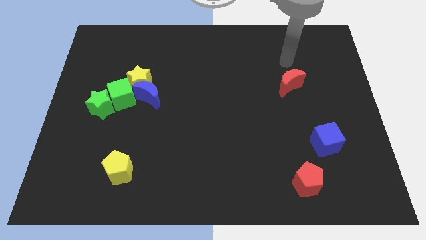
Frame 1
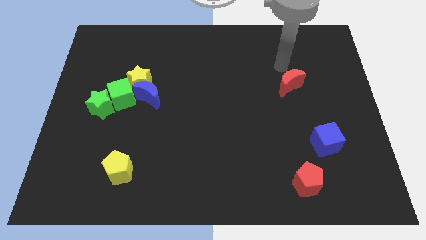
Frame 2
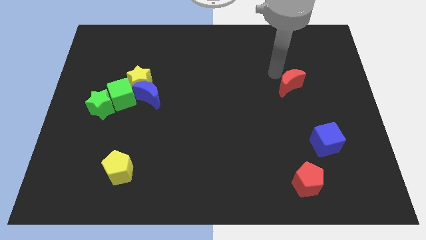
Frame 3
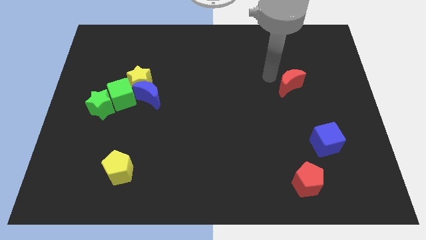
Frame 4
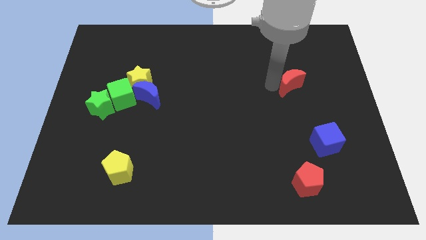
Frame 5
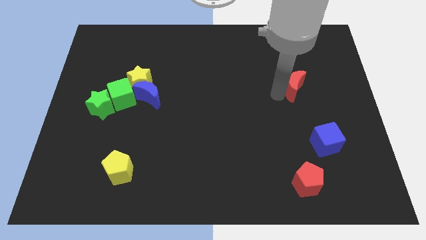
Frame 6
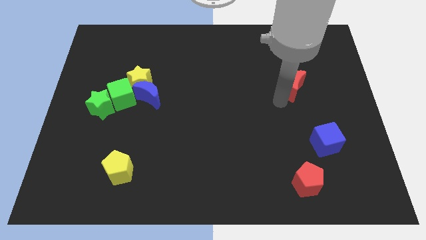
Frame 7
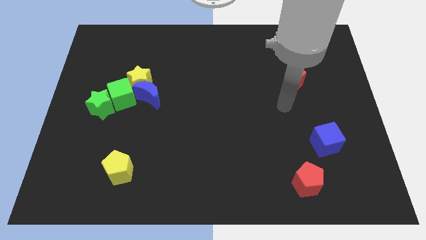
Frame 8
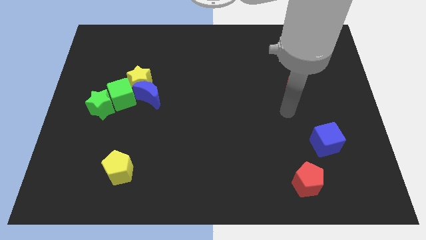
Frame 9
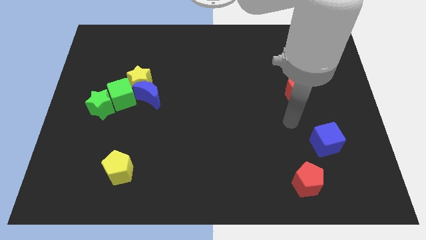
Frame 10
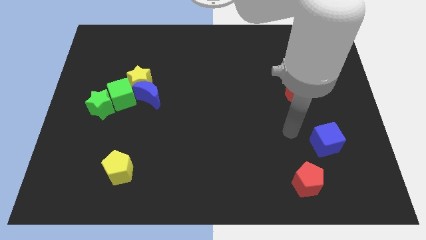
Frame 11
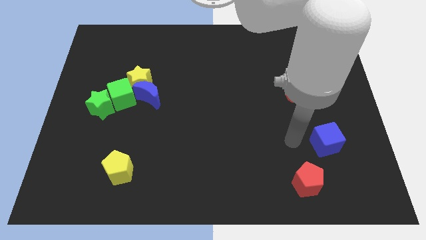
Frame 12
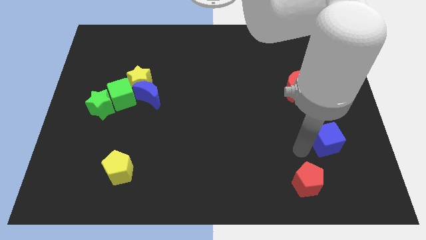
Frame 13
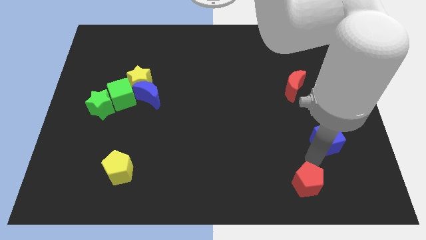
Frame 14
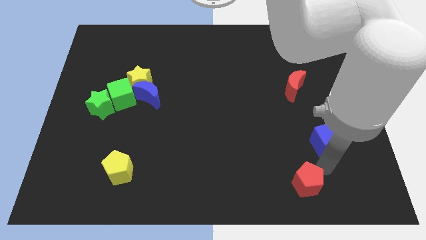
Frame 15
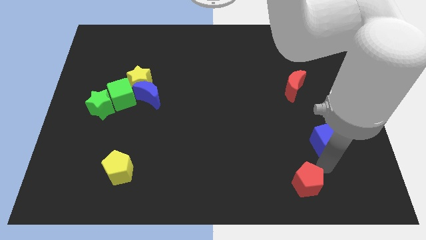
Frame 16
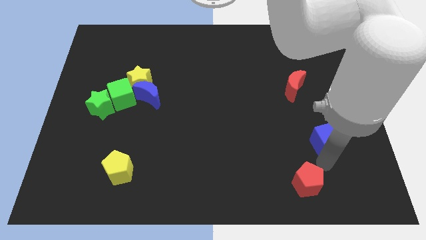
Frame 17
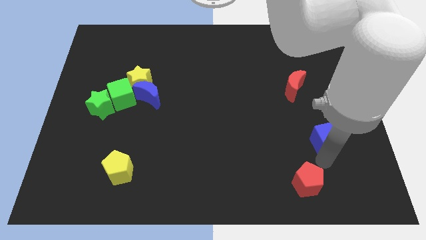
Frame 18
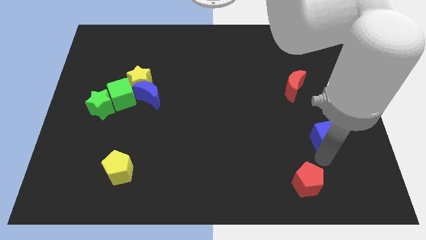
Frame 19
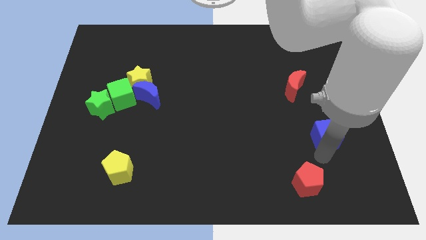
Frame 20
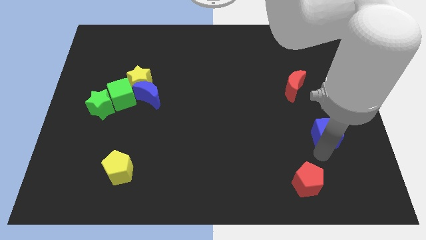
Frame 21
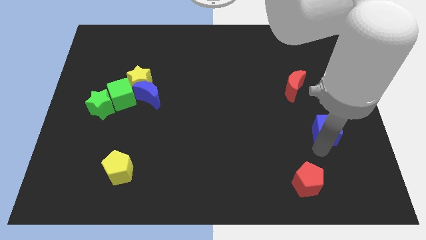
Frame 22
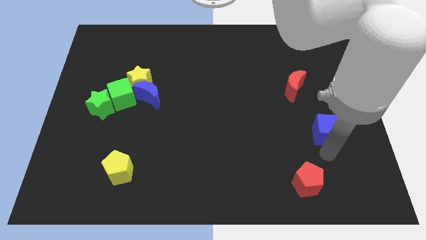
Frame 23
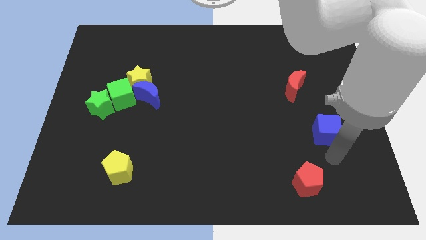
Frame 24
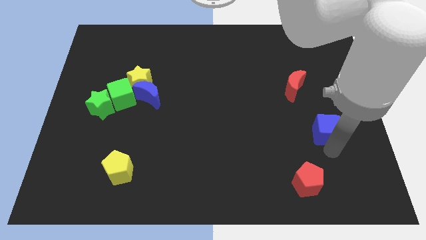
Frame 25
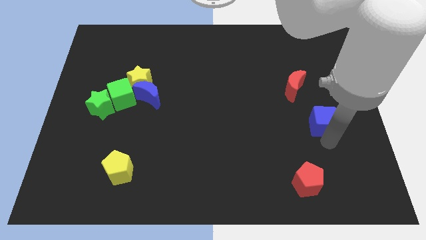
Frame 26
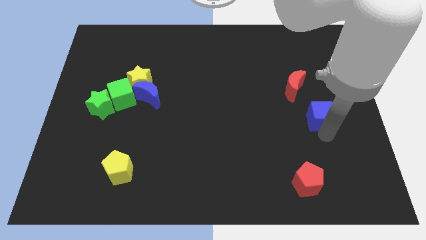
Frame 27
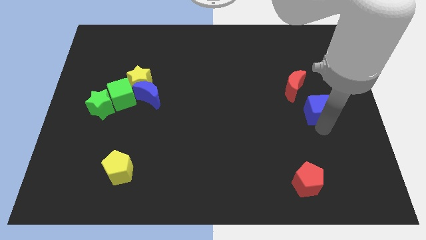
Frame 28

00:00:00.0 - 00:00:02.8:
move the blue cube up a little bit

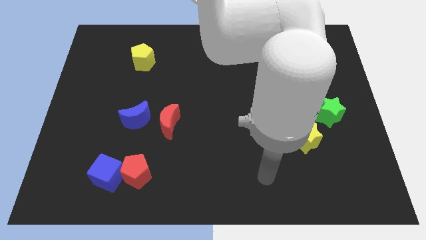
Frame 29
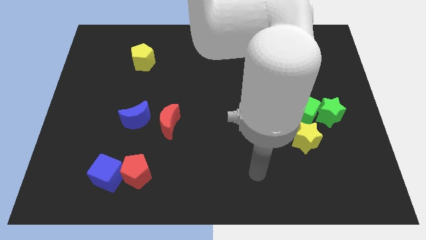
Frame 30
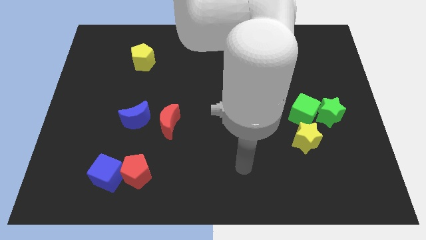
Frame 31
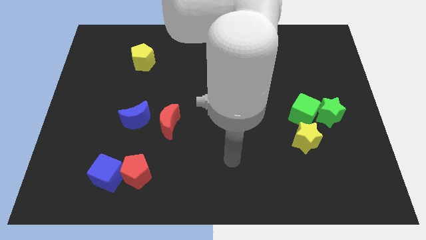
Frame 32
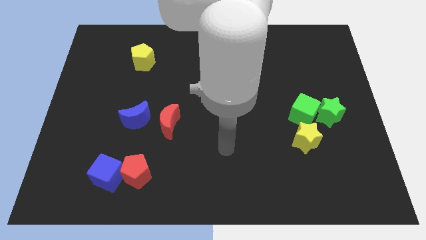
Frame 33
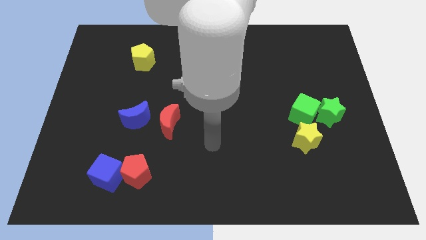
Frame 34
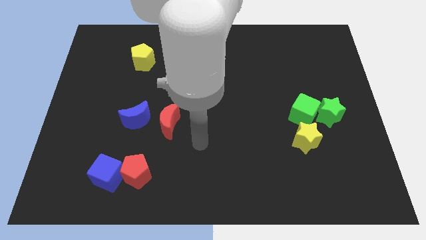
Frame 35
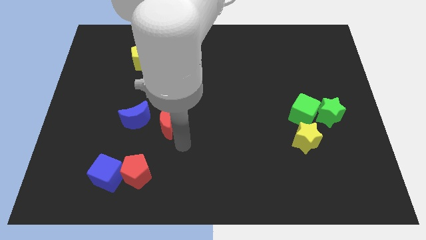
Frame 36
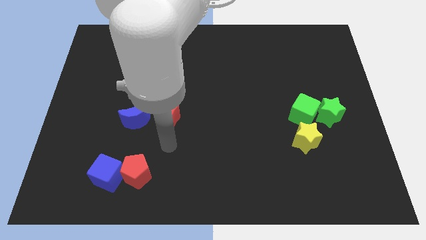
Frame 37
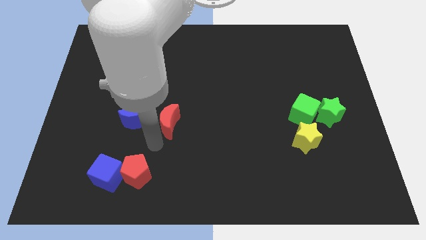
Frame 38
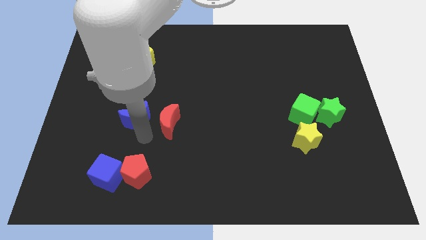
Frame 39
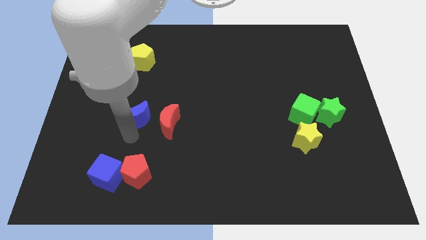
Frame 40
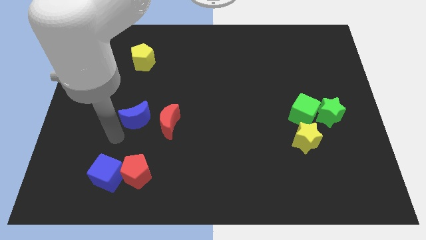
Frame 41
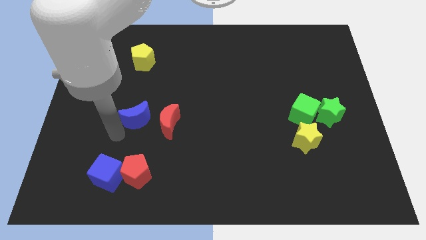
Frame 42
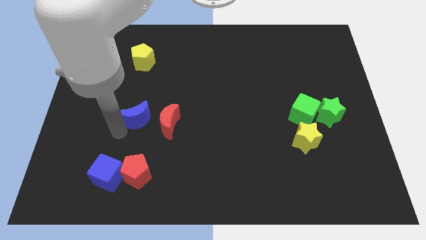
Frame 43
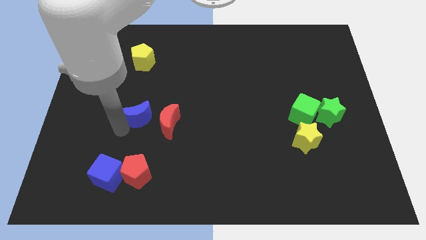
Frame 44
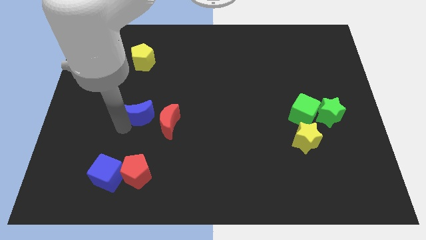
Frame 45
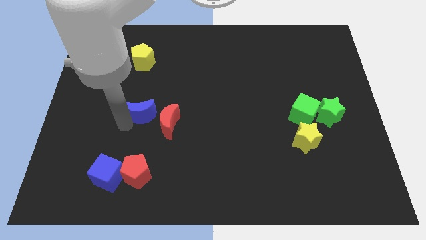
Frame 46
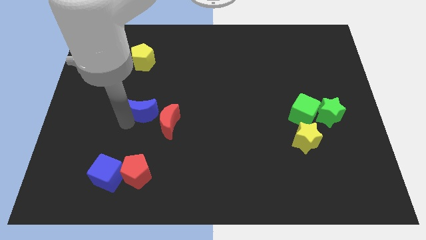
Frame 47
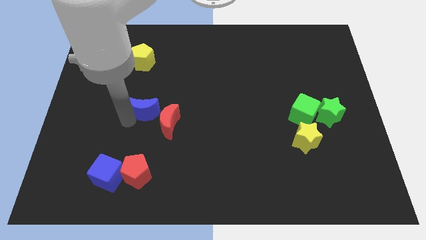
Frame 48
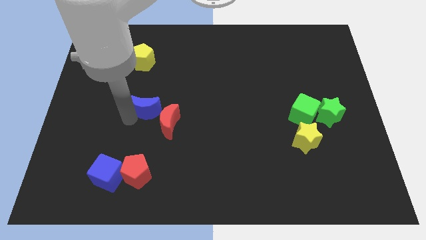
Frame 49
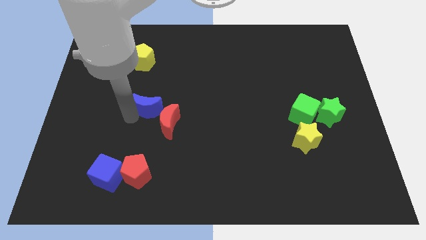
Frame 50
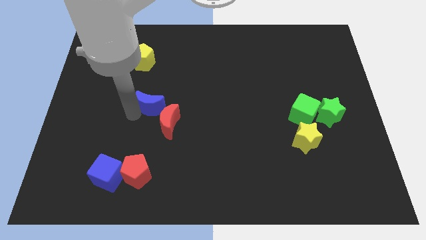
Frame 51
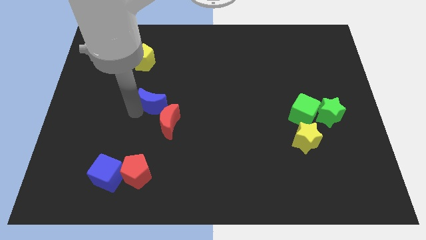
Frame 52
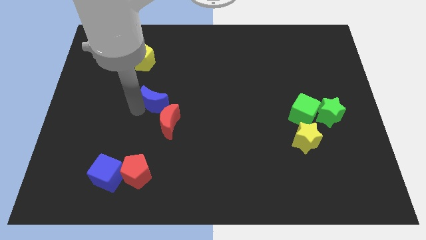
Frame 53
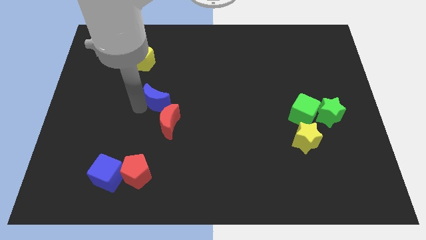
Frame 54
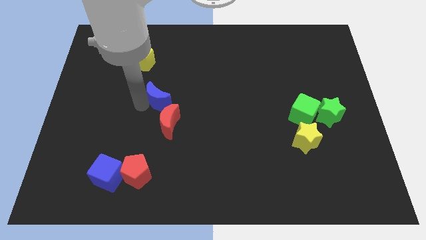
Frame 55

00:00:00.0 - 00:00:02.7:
move the blue moon a little bit up and to the right diagonally

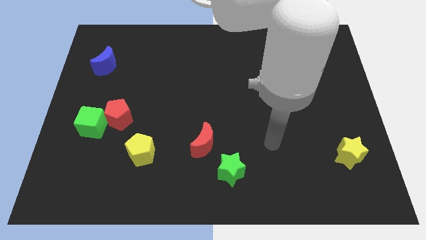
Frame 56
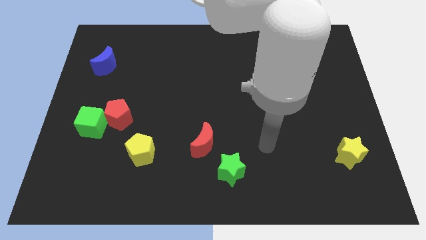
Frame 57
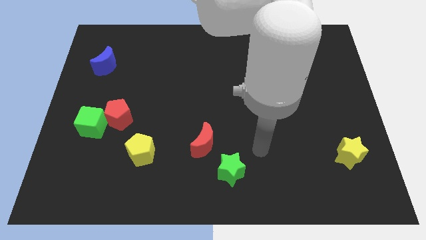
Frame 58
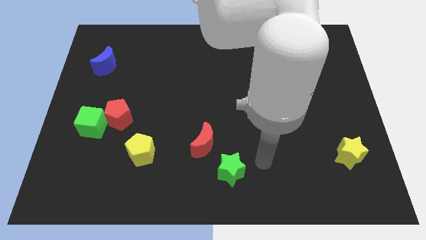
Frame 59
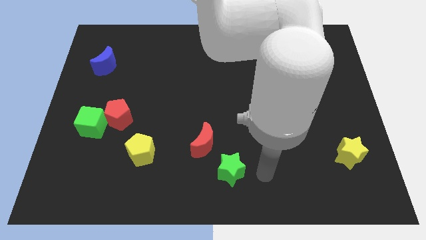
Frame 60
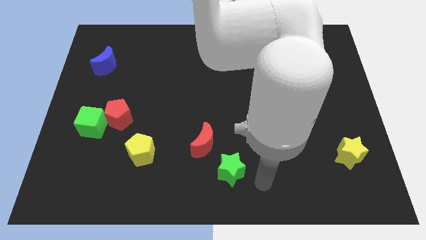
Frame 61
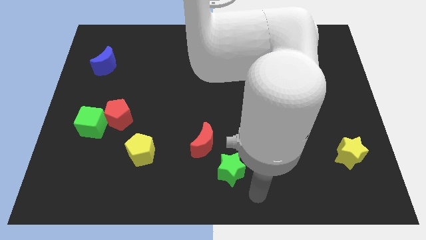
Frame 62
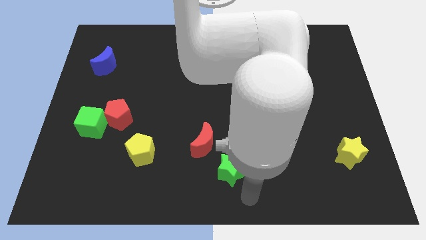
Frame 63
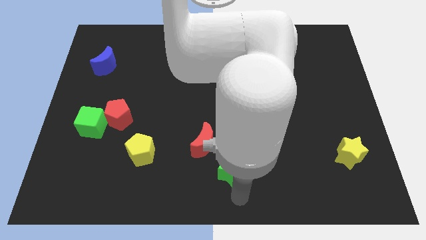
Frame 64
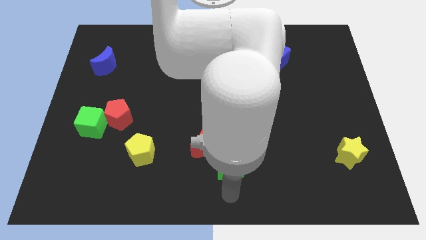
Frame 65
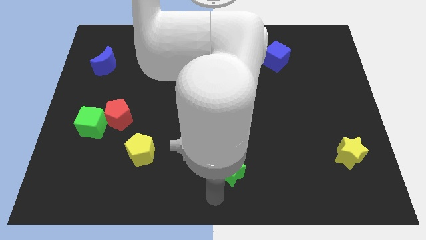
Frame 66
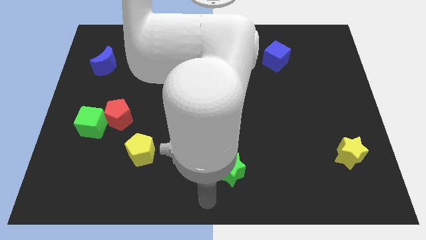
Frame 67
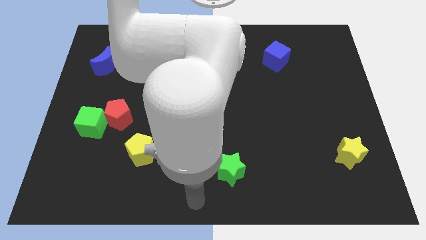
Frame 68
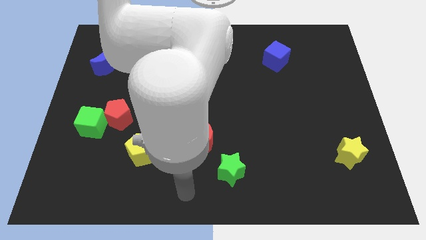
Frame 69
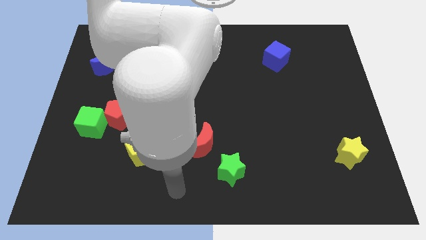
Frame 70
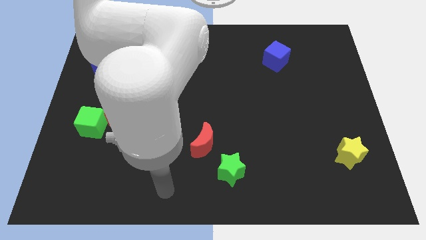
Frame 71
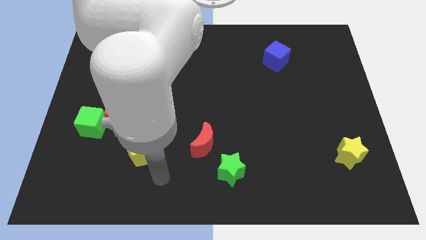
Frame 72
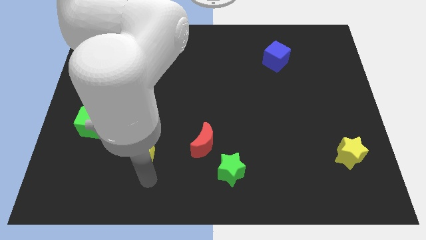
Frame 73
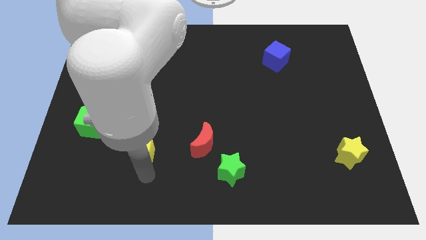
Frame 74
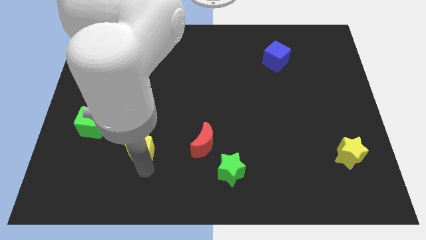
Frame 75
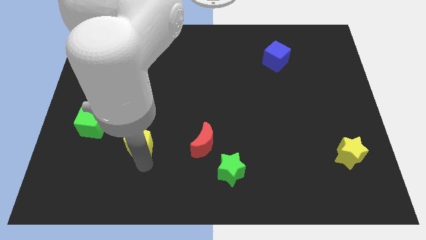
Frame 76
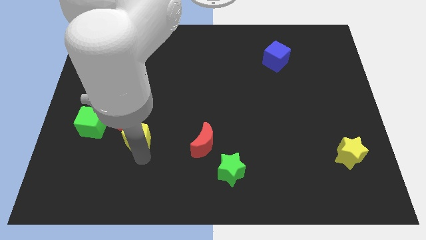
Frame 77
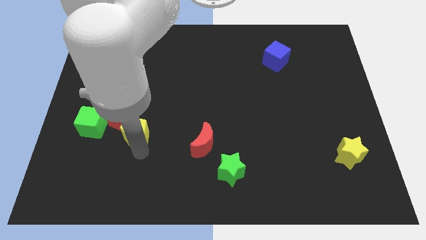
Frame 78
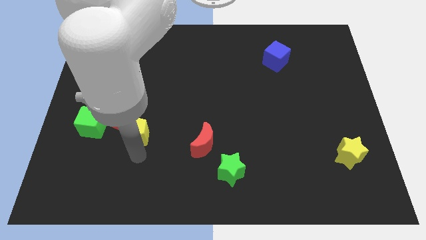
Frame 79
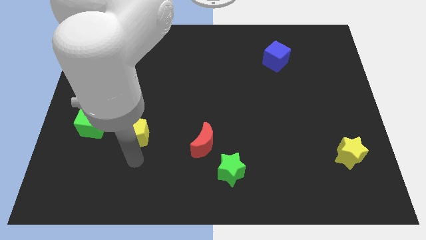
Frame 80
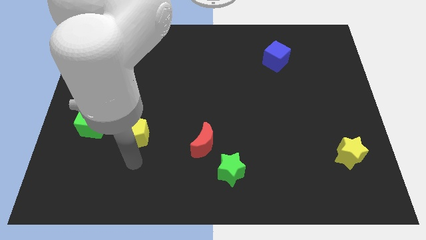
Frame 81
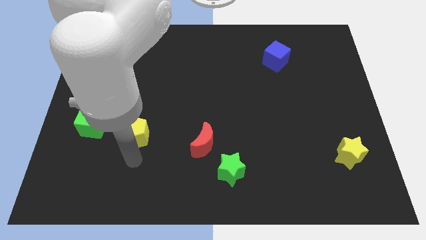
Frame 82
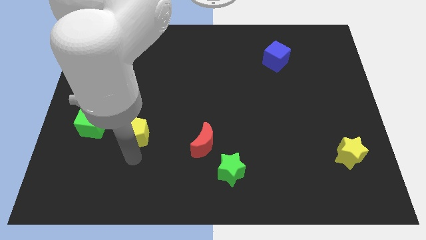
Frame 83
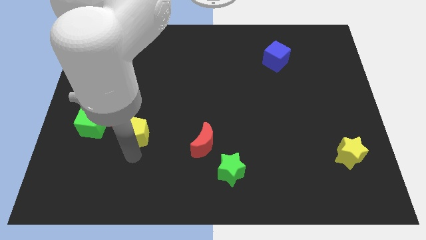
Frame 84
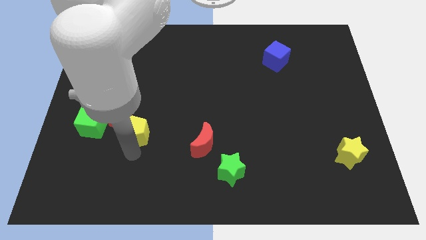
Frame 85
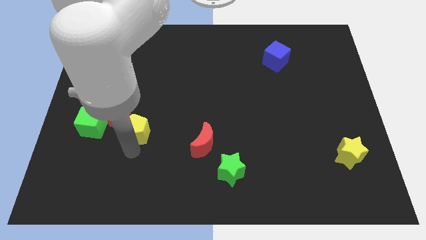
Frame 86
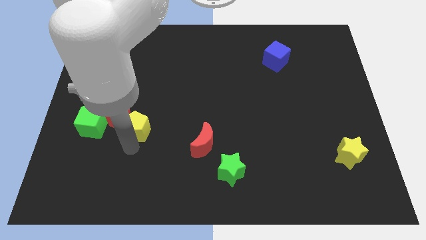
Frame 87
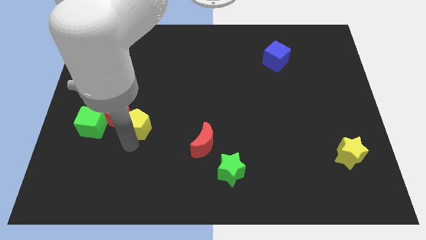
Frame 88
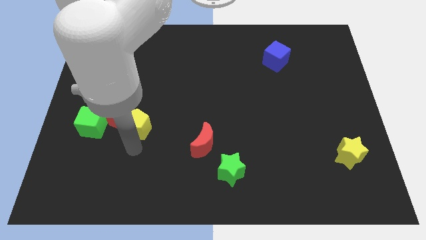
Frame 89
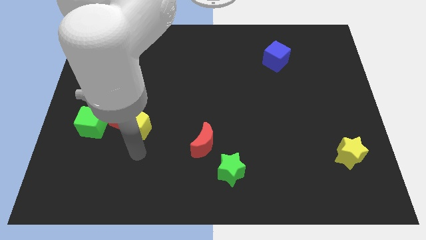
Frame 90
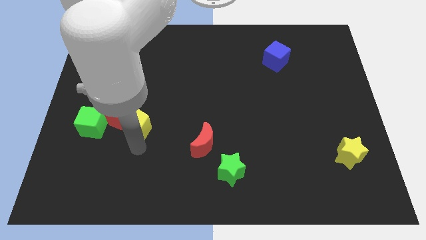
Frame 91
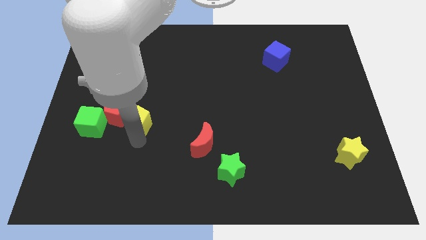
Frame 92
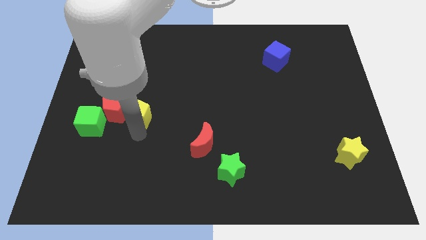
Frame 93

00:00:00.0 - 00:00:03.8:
slide the yellow pentagon slightly upwards and left
